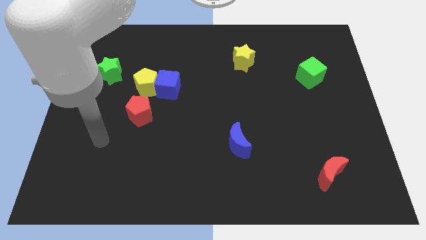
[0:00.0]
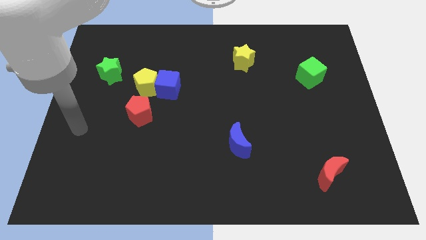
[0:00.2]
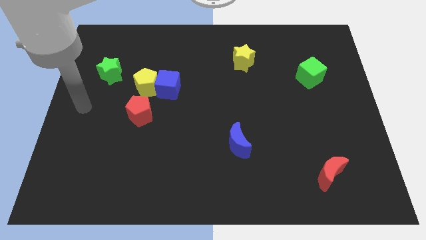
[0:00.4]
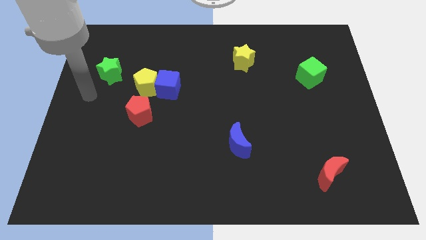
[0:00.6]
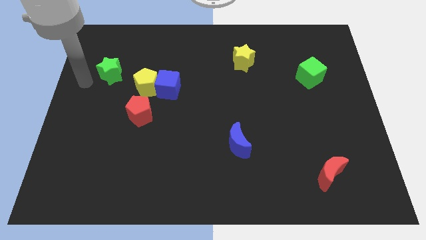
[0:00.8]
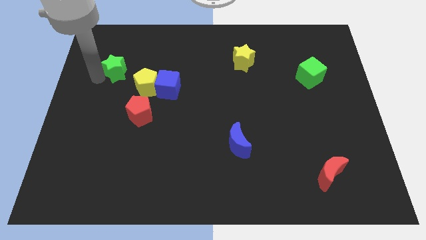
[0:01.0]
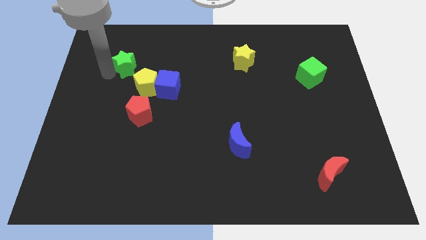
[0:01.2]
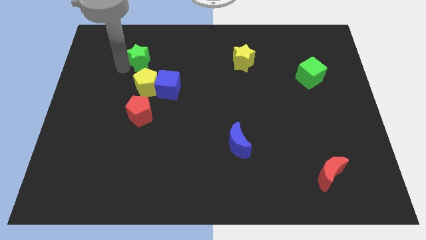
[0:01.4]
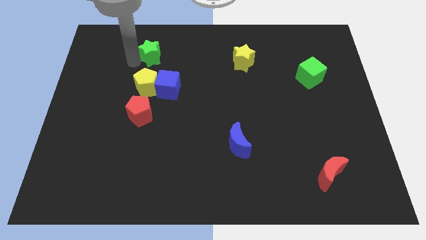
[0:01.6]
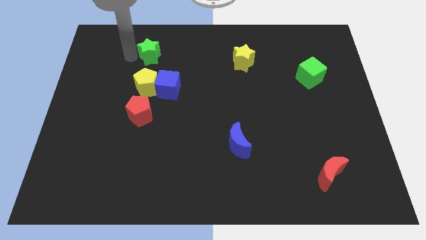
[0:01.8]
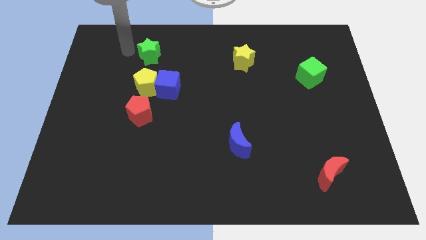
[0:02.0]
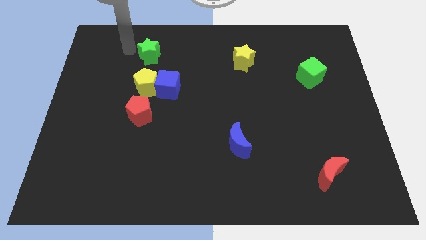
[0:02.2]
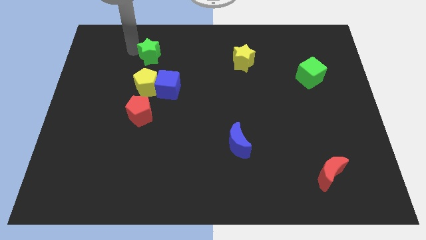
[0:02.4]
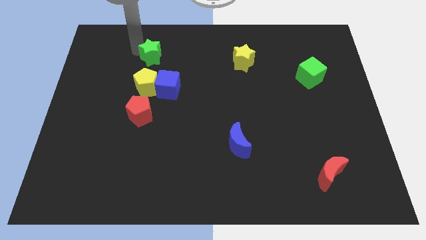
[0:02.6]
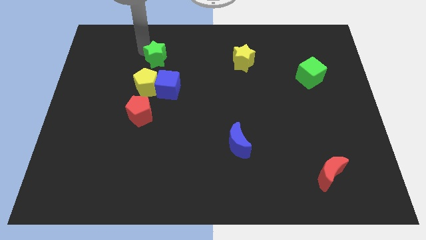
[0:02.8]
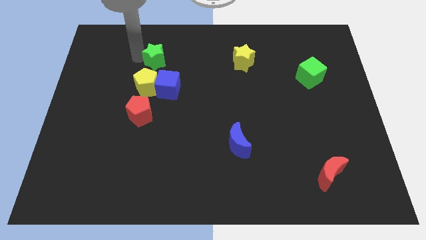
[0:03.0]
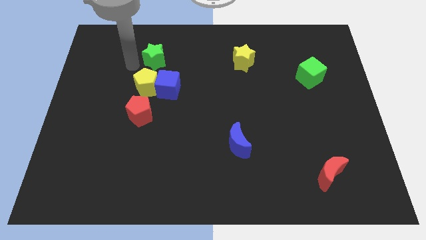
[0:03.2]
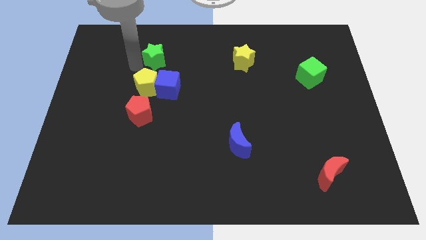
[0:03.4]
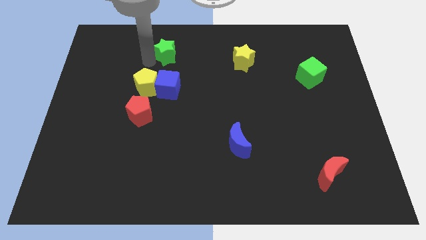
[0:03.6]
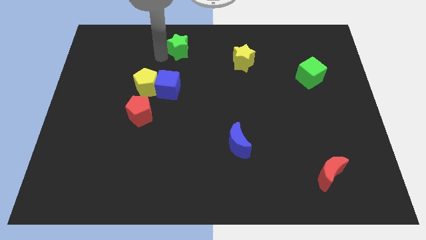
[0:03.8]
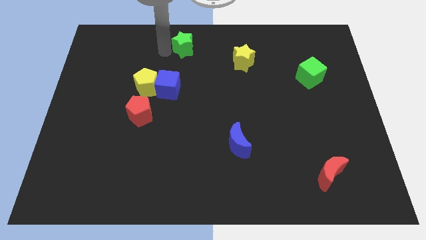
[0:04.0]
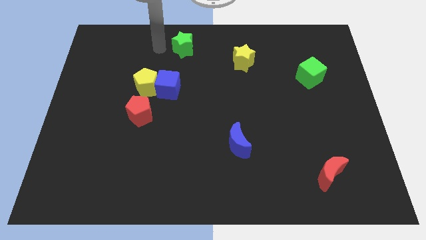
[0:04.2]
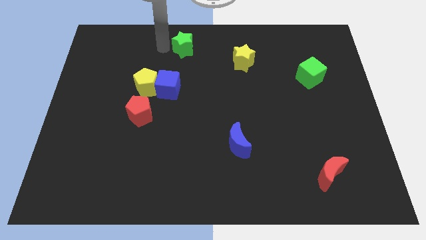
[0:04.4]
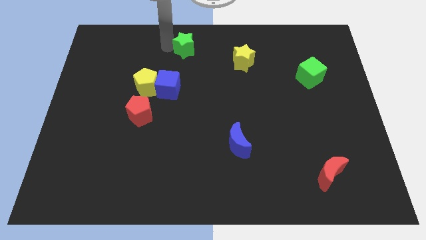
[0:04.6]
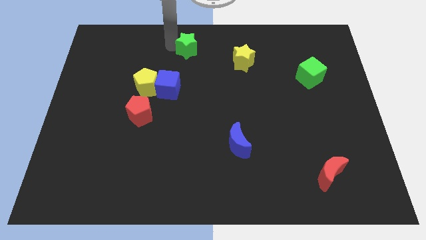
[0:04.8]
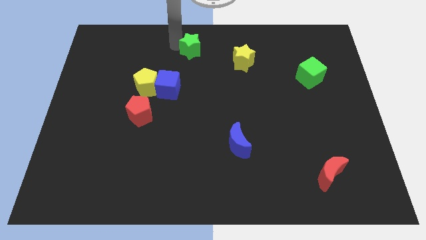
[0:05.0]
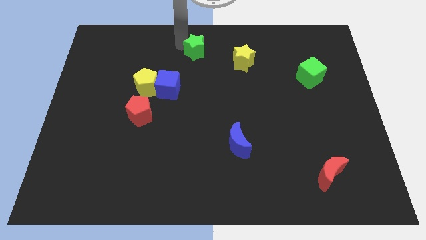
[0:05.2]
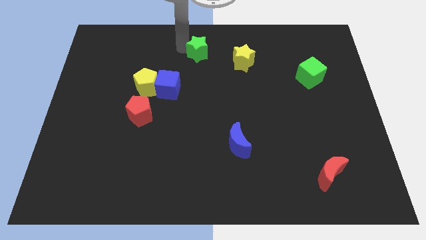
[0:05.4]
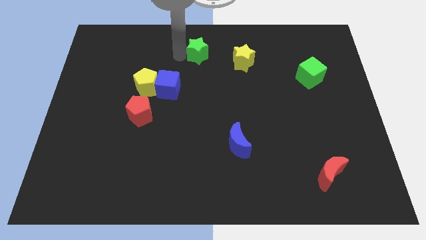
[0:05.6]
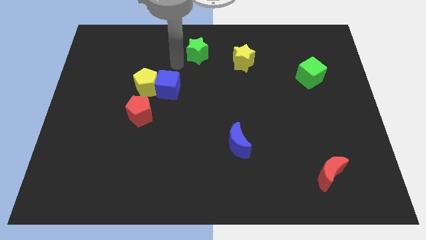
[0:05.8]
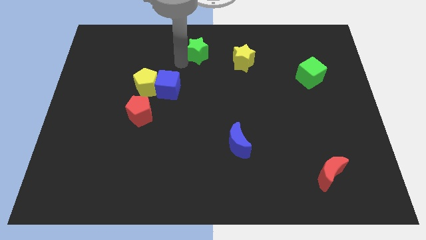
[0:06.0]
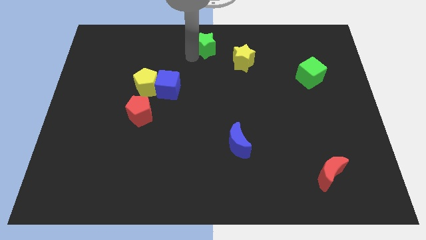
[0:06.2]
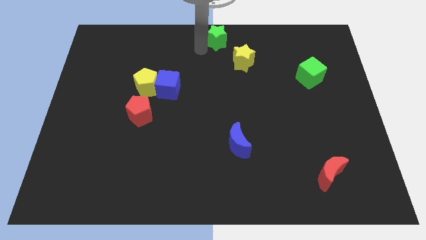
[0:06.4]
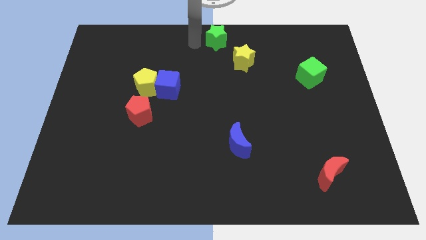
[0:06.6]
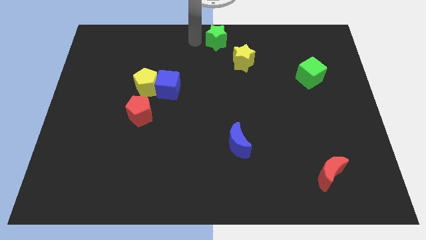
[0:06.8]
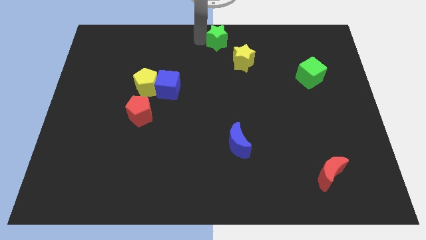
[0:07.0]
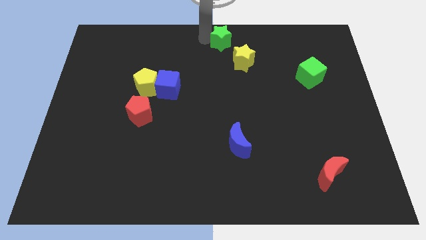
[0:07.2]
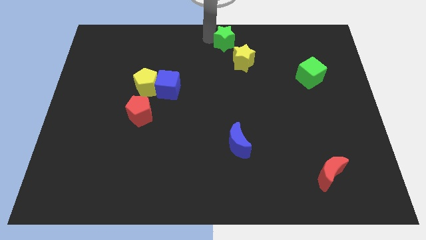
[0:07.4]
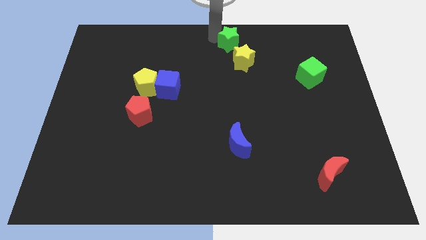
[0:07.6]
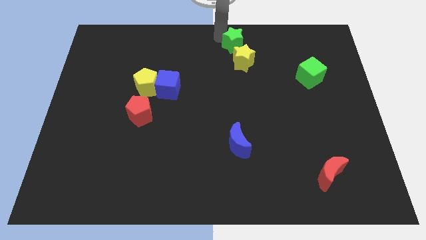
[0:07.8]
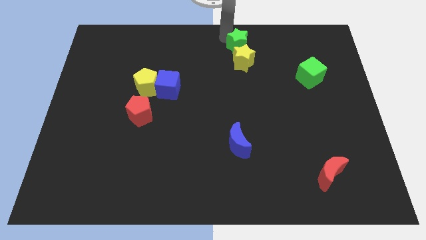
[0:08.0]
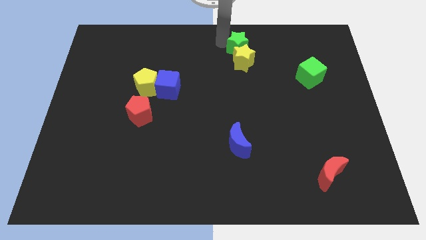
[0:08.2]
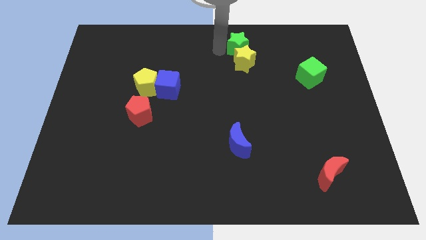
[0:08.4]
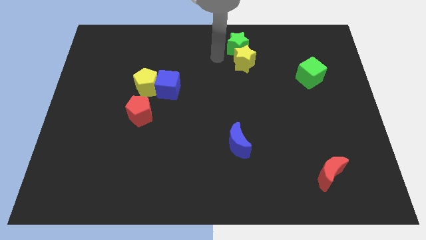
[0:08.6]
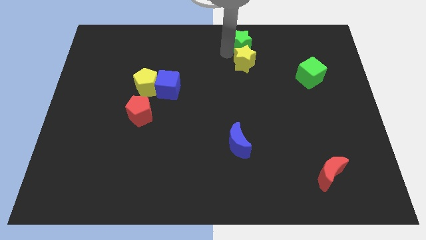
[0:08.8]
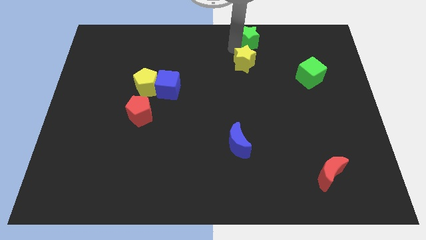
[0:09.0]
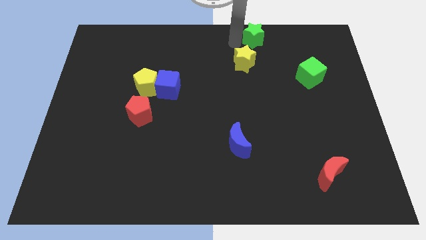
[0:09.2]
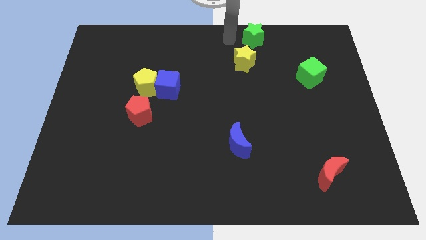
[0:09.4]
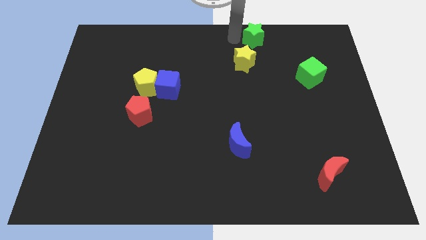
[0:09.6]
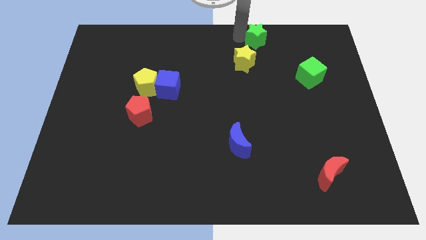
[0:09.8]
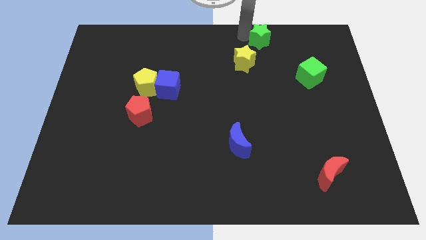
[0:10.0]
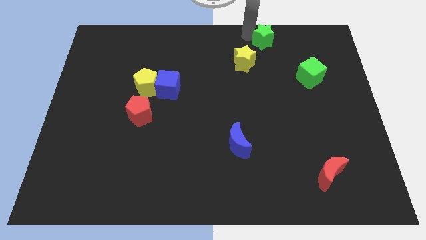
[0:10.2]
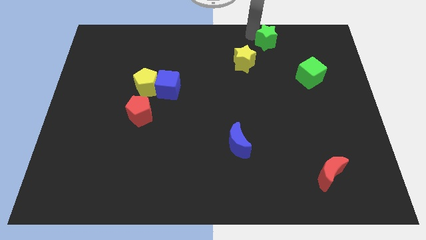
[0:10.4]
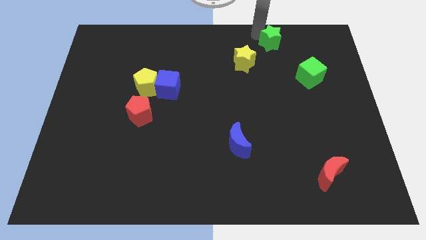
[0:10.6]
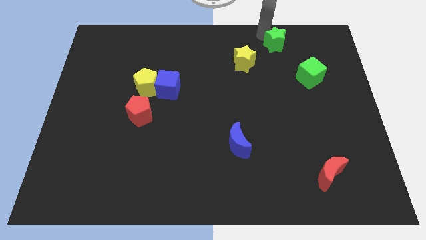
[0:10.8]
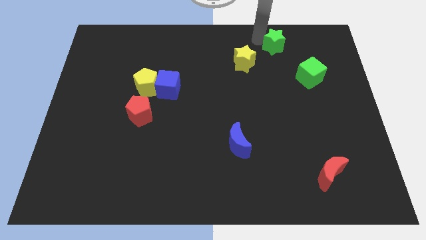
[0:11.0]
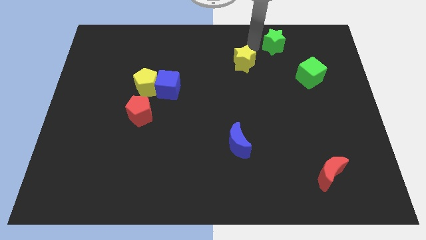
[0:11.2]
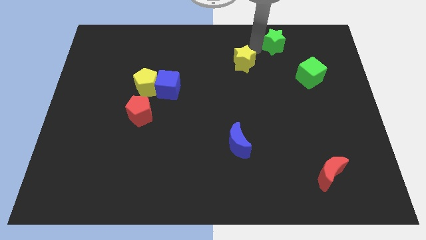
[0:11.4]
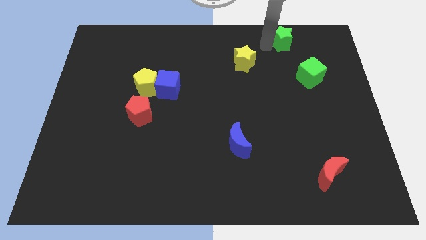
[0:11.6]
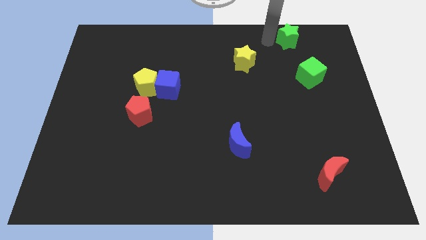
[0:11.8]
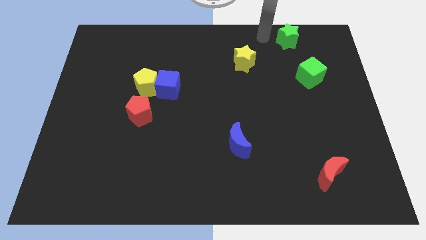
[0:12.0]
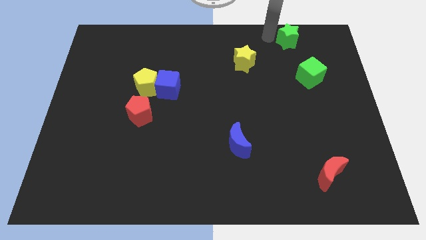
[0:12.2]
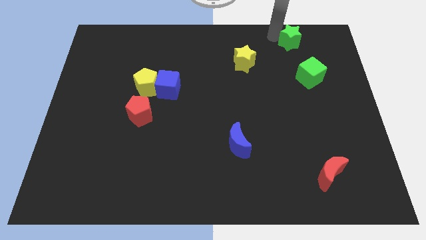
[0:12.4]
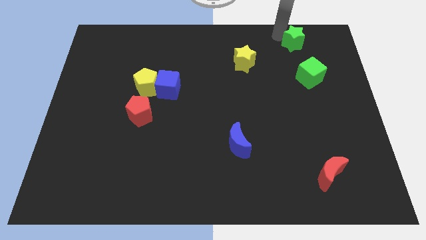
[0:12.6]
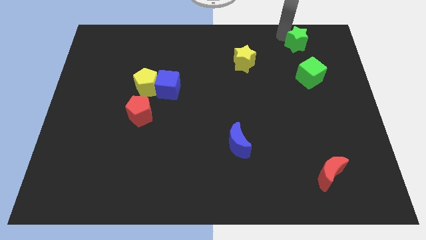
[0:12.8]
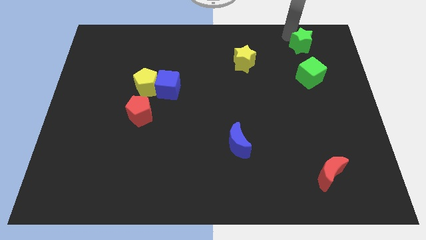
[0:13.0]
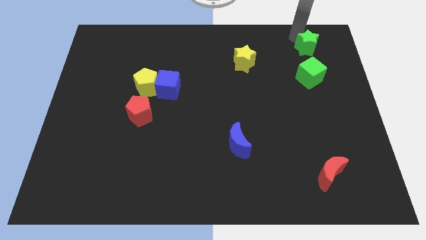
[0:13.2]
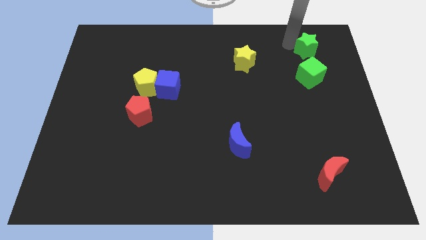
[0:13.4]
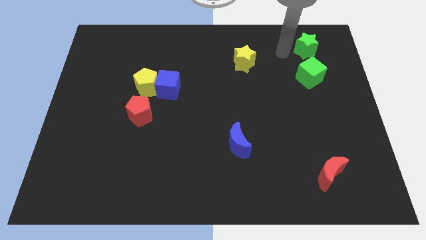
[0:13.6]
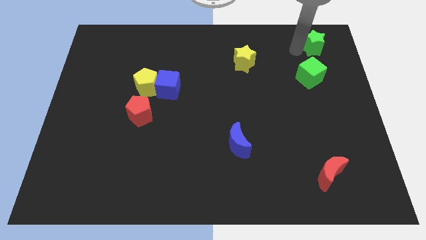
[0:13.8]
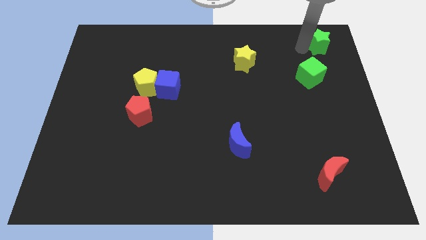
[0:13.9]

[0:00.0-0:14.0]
push the green star to the top right corner
